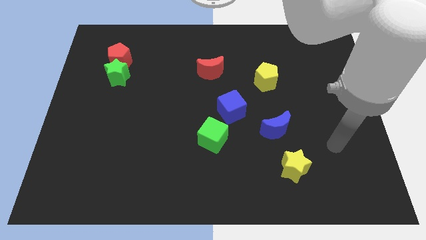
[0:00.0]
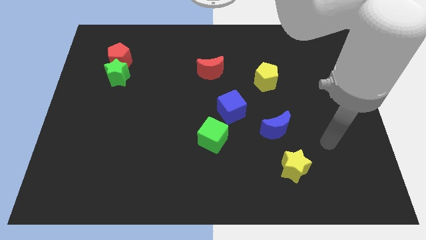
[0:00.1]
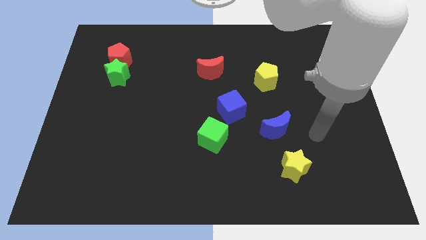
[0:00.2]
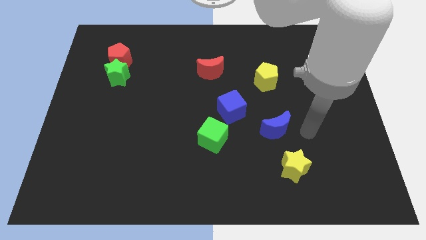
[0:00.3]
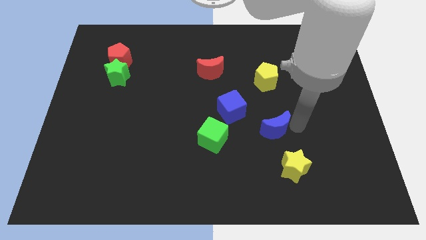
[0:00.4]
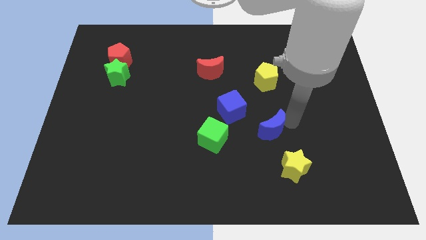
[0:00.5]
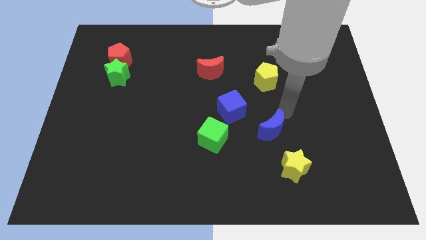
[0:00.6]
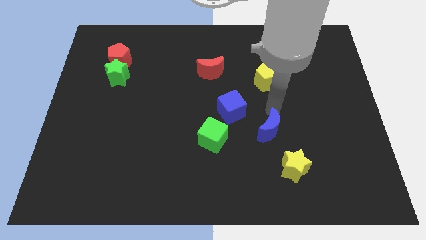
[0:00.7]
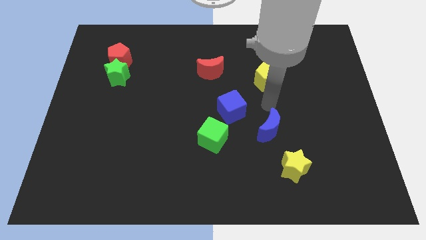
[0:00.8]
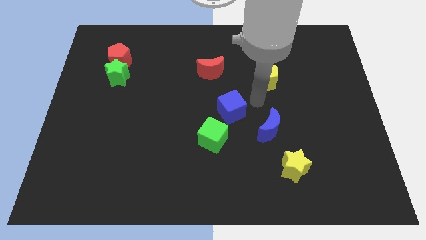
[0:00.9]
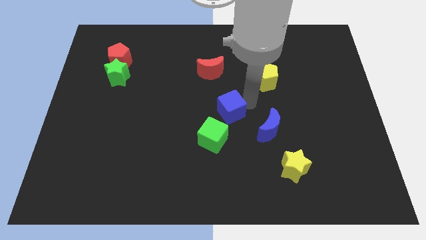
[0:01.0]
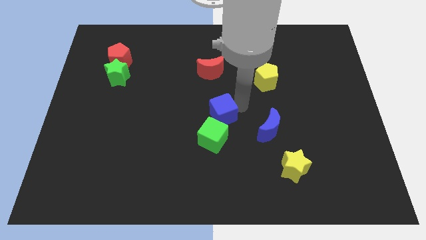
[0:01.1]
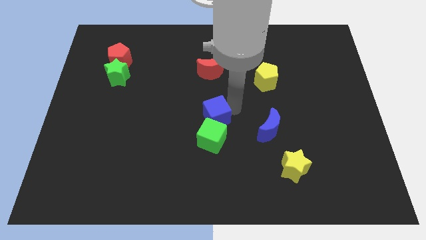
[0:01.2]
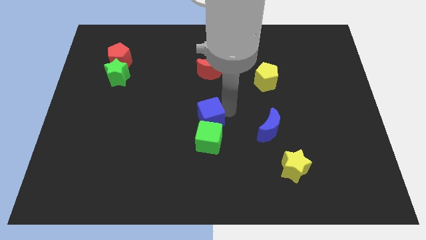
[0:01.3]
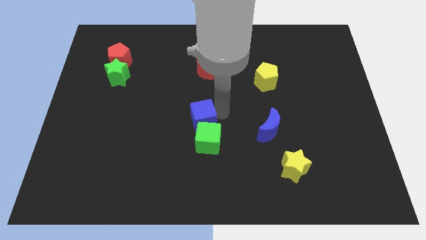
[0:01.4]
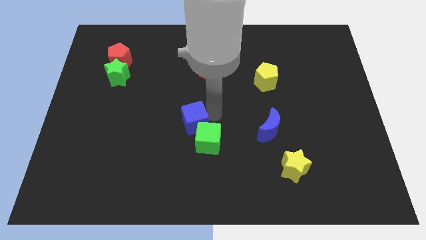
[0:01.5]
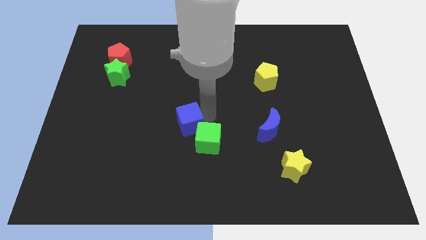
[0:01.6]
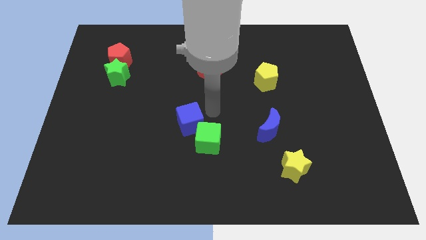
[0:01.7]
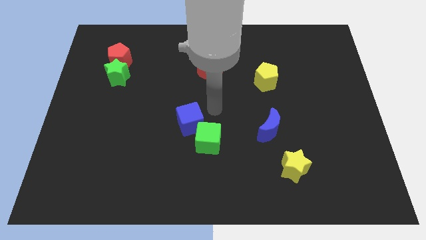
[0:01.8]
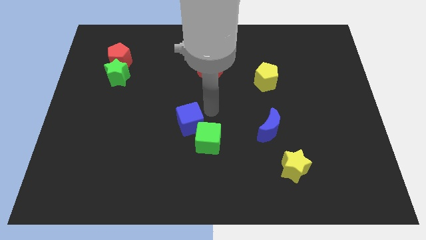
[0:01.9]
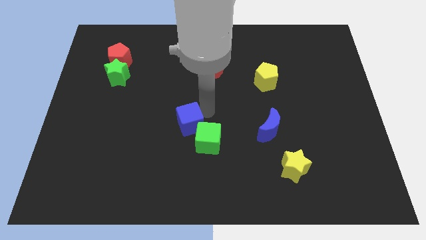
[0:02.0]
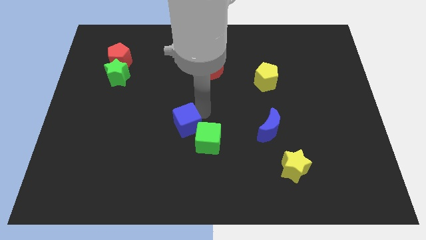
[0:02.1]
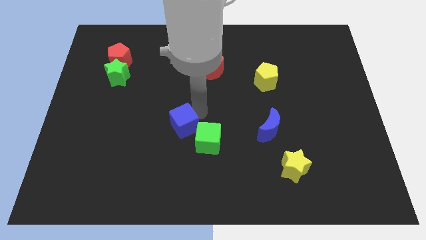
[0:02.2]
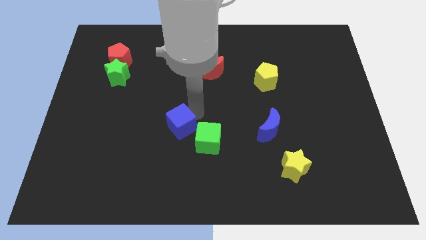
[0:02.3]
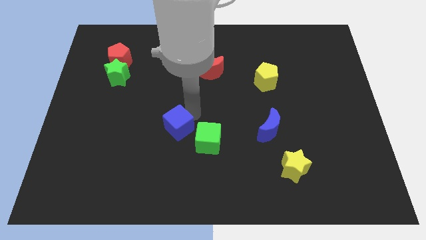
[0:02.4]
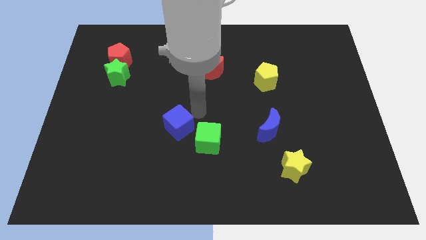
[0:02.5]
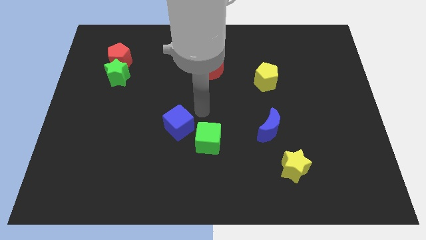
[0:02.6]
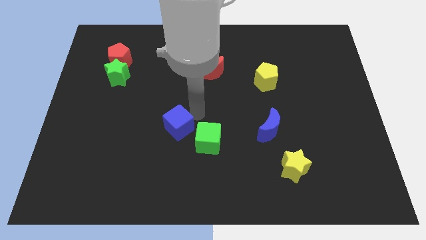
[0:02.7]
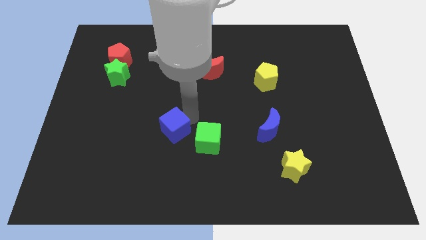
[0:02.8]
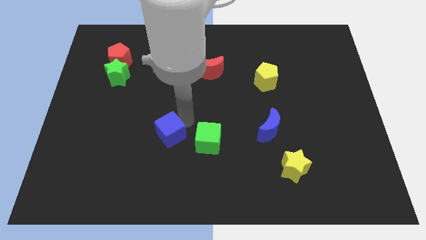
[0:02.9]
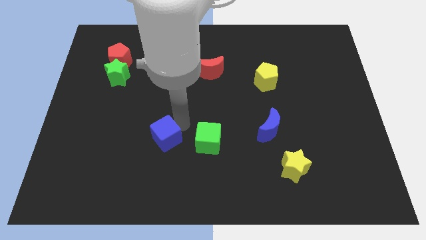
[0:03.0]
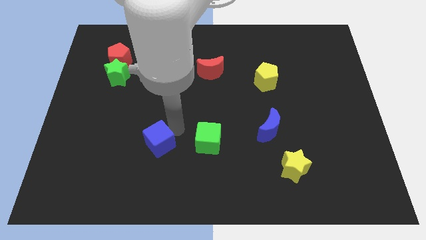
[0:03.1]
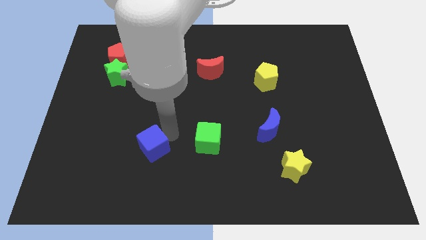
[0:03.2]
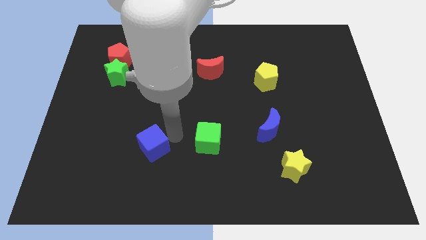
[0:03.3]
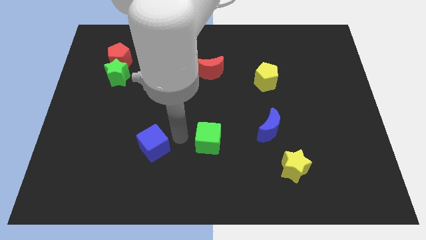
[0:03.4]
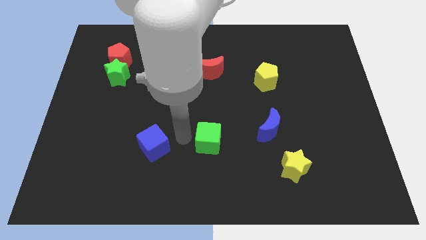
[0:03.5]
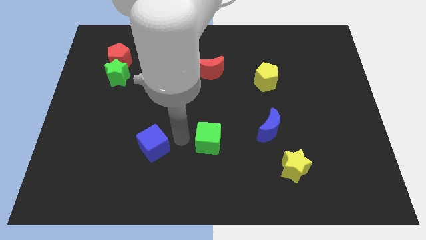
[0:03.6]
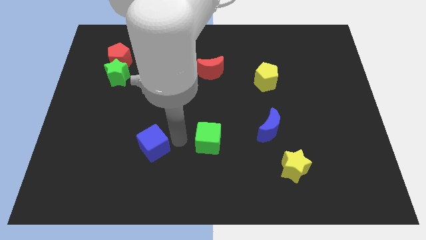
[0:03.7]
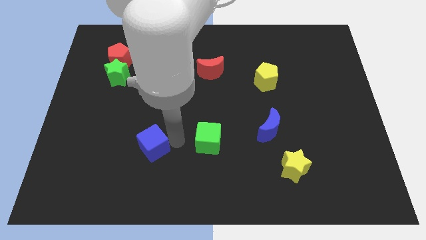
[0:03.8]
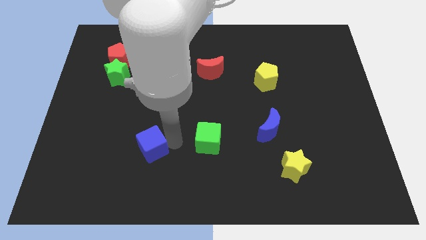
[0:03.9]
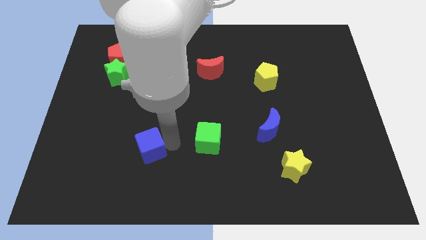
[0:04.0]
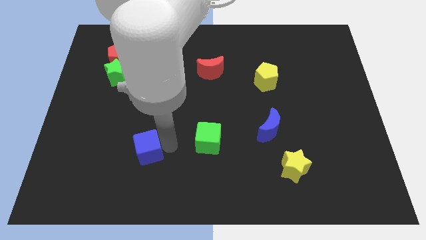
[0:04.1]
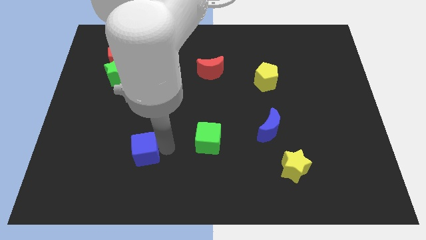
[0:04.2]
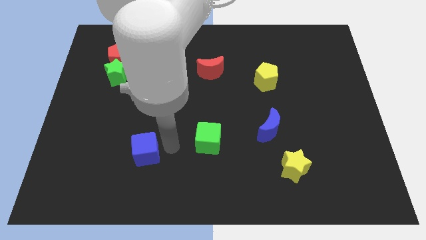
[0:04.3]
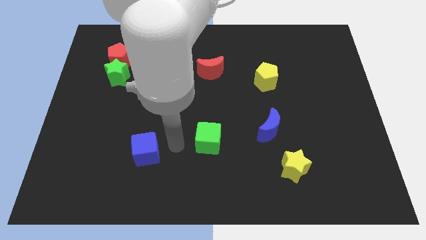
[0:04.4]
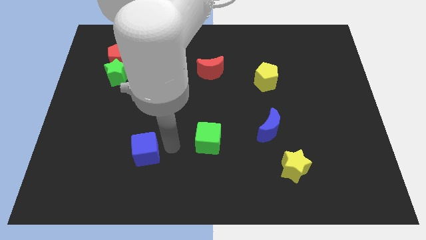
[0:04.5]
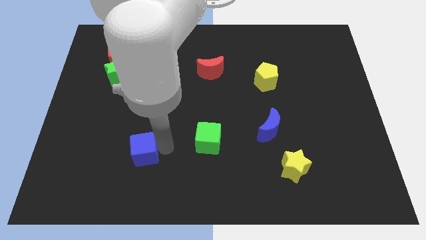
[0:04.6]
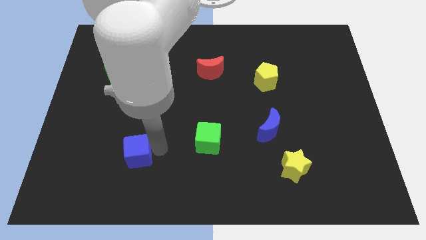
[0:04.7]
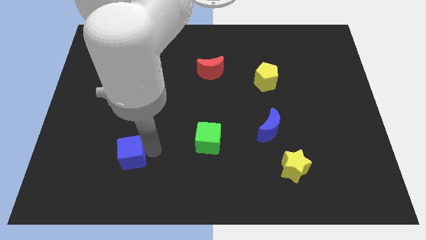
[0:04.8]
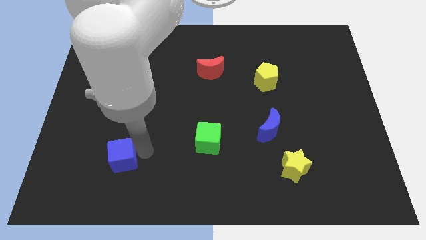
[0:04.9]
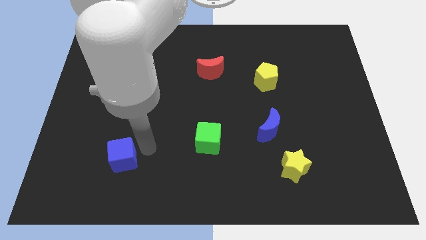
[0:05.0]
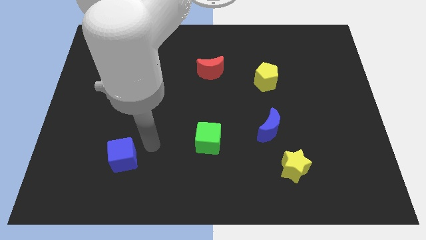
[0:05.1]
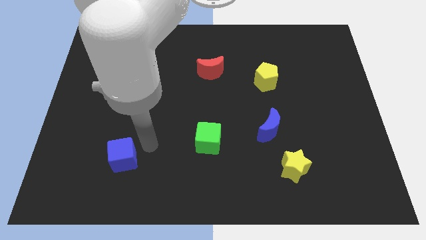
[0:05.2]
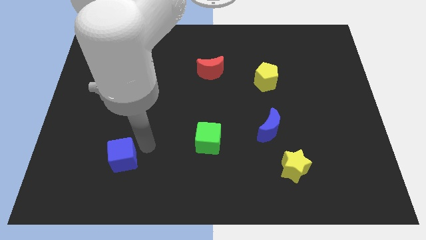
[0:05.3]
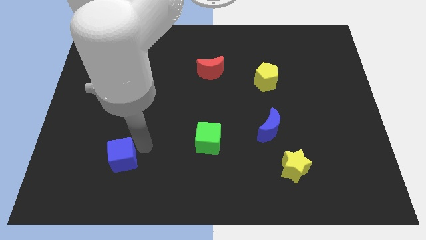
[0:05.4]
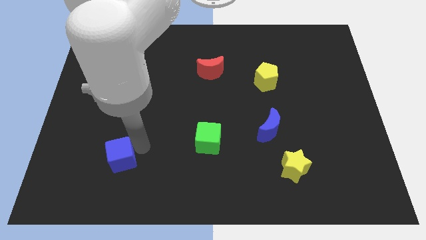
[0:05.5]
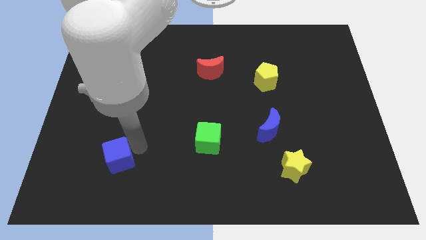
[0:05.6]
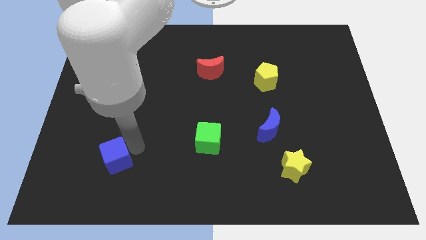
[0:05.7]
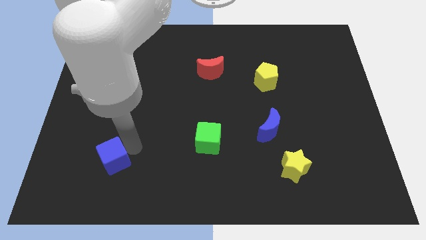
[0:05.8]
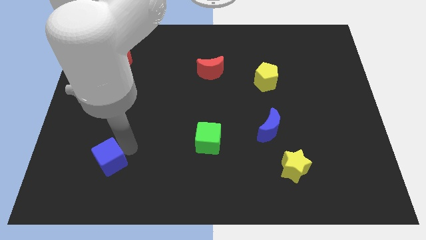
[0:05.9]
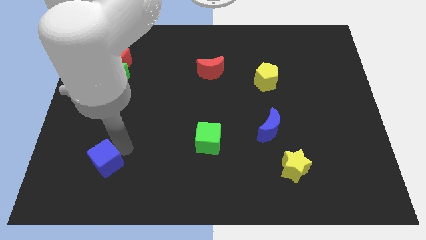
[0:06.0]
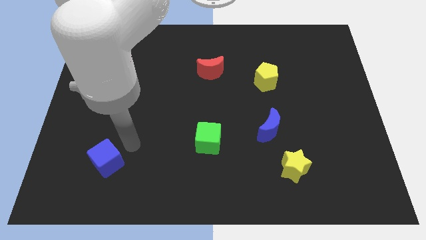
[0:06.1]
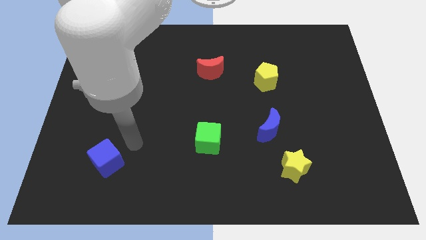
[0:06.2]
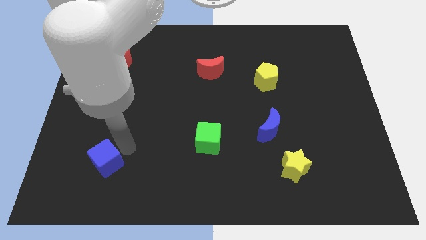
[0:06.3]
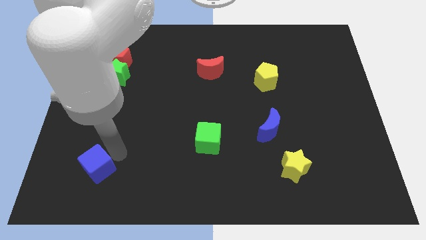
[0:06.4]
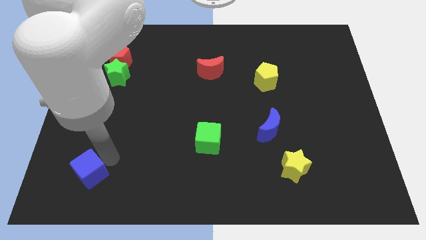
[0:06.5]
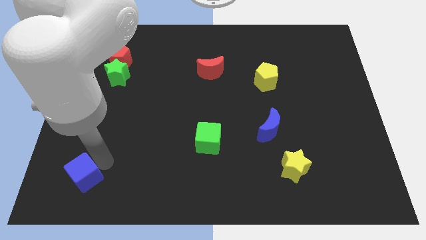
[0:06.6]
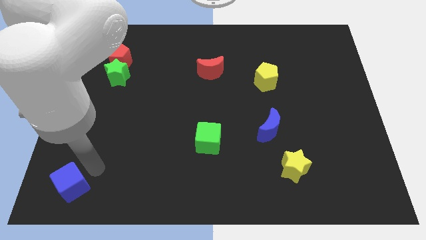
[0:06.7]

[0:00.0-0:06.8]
move the blue cube to the lower left corner

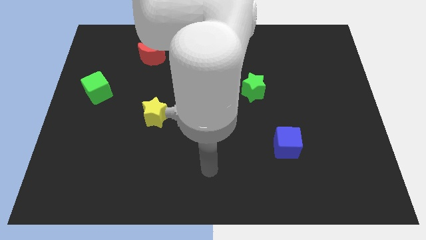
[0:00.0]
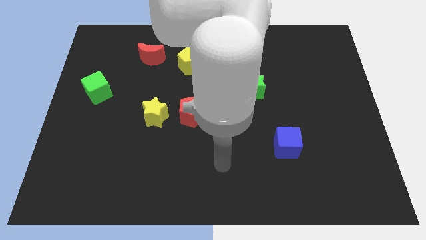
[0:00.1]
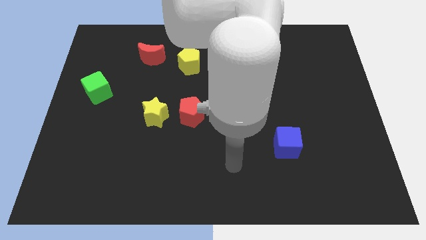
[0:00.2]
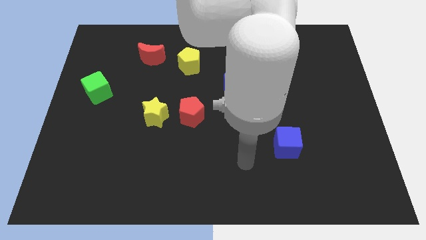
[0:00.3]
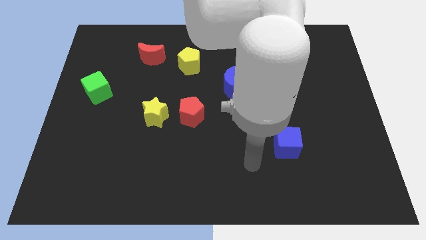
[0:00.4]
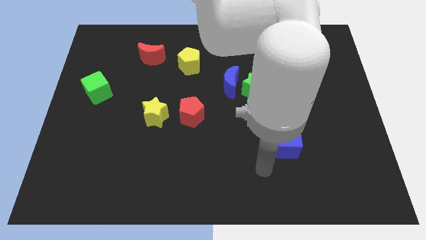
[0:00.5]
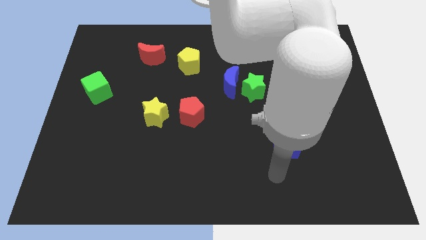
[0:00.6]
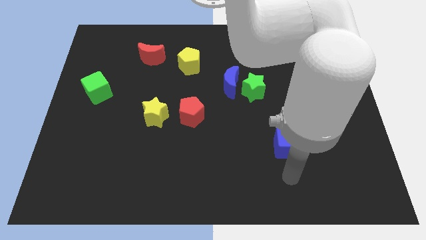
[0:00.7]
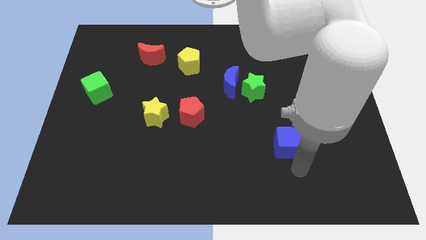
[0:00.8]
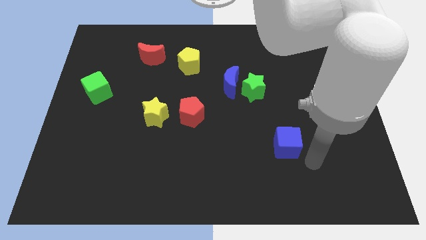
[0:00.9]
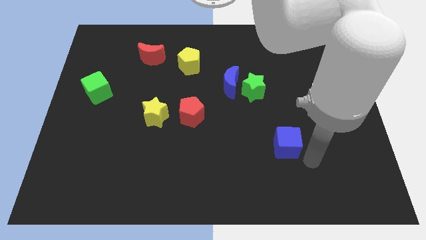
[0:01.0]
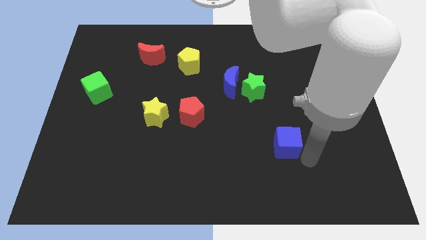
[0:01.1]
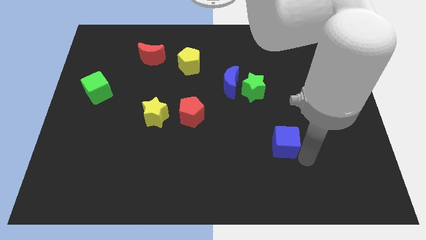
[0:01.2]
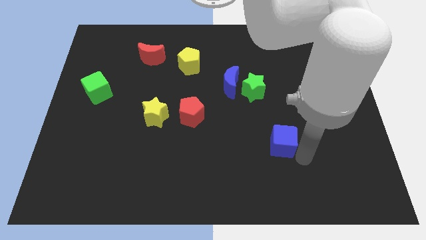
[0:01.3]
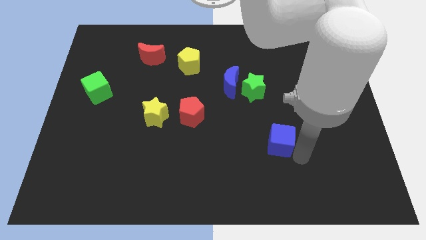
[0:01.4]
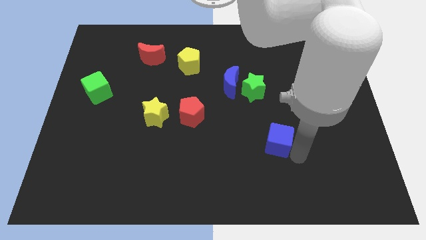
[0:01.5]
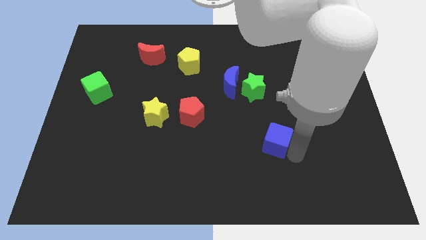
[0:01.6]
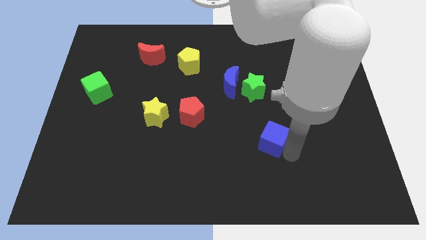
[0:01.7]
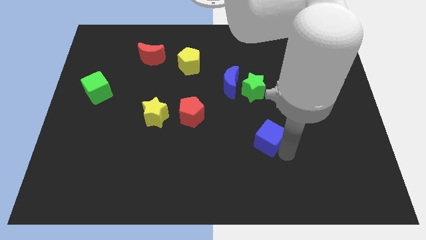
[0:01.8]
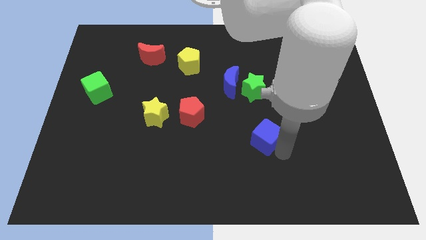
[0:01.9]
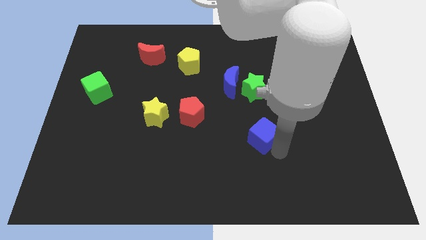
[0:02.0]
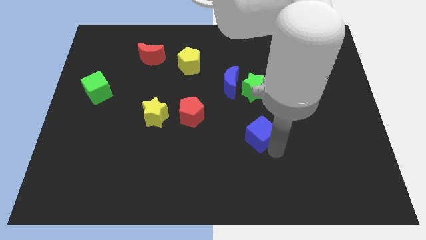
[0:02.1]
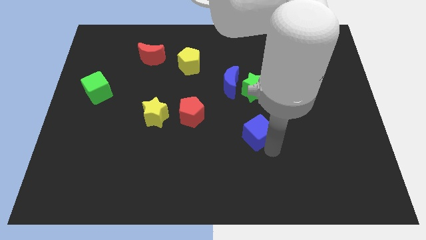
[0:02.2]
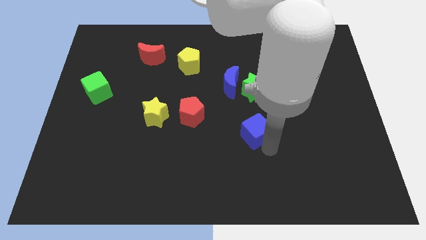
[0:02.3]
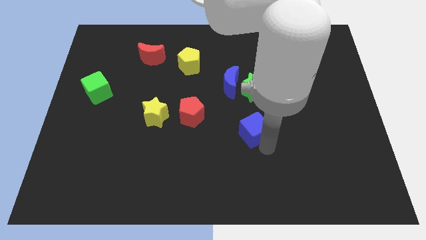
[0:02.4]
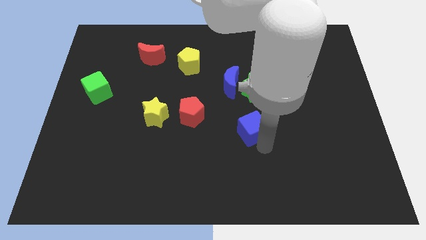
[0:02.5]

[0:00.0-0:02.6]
move the blue cube to the center of the board
